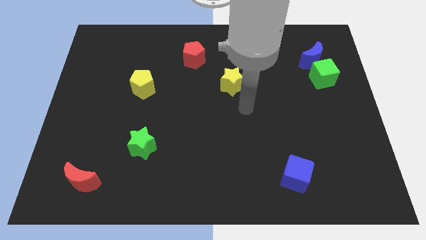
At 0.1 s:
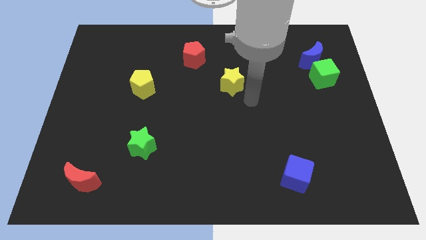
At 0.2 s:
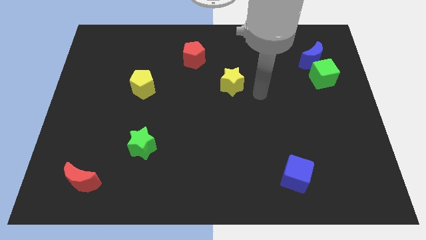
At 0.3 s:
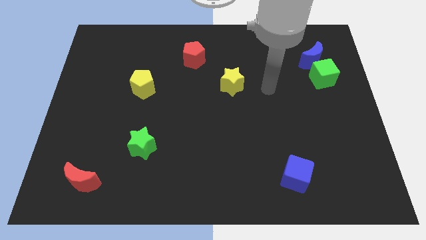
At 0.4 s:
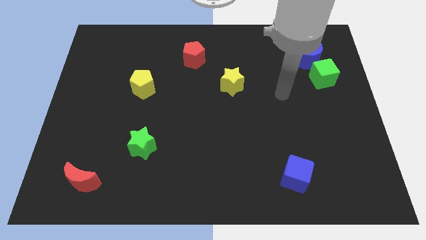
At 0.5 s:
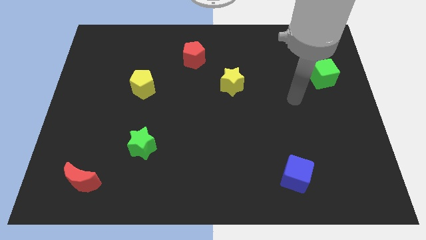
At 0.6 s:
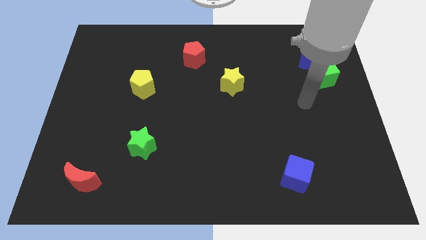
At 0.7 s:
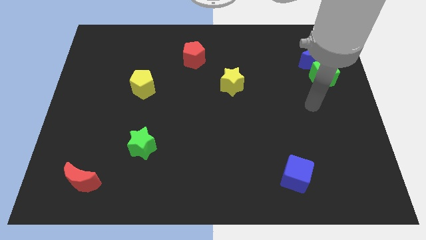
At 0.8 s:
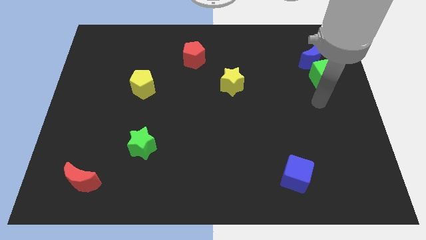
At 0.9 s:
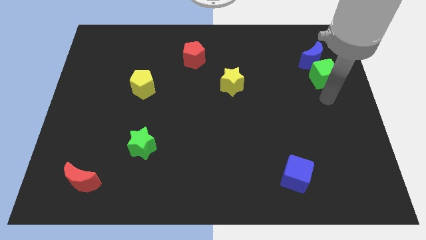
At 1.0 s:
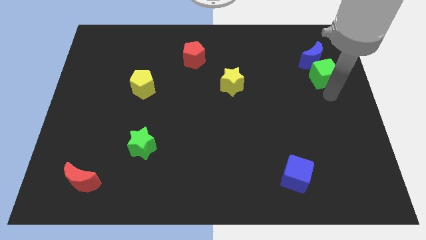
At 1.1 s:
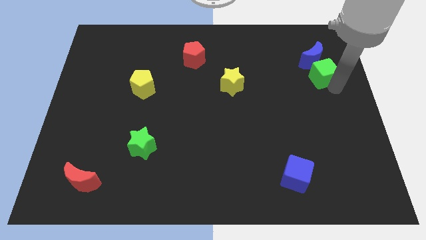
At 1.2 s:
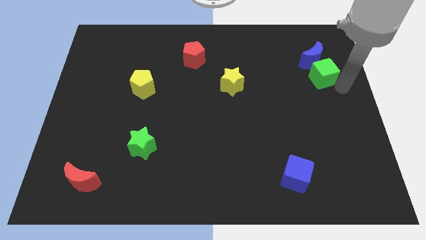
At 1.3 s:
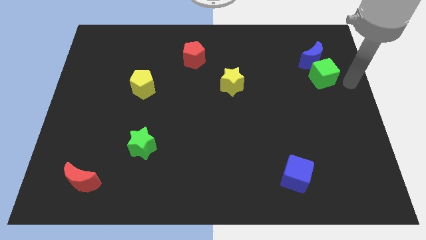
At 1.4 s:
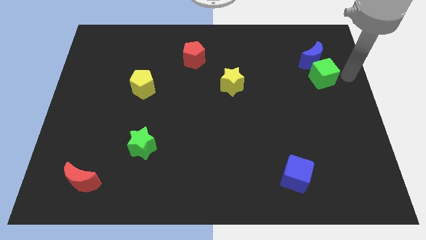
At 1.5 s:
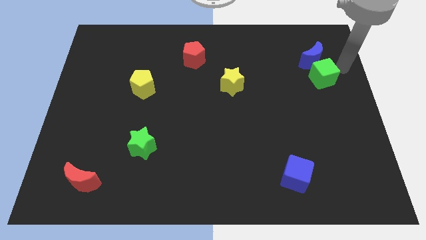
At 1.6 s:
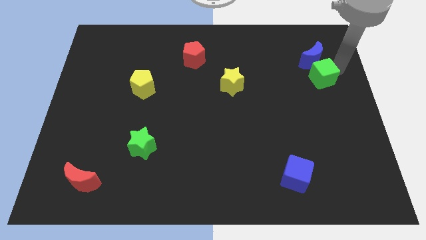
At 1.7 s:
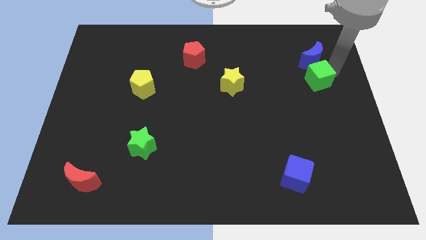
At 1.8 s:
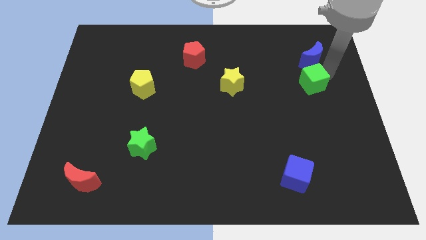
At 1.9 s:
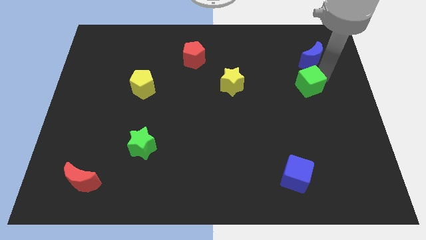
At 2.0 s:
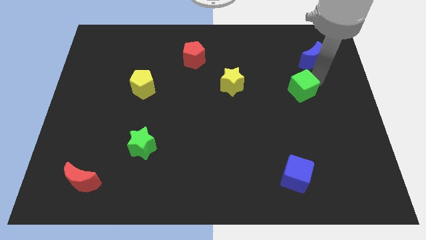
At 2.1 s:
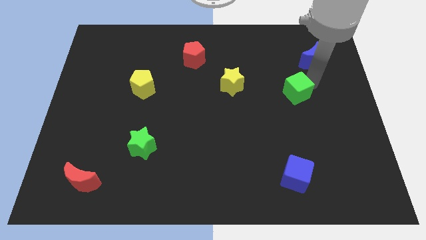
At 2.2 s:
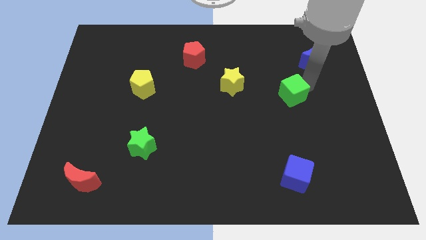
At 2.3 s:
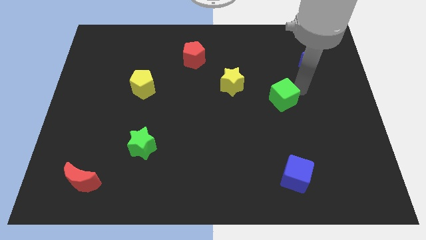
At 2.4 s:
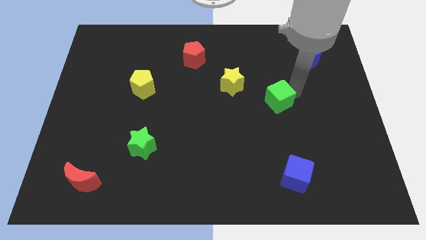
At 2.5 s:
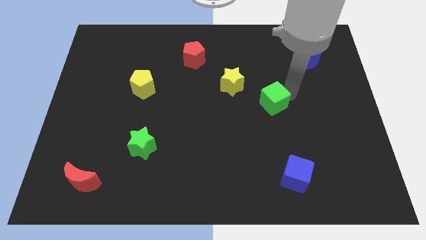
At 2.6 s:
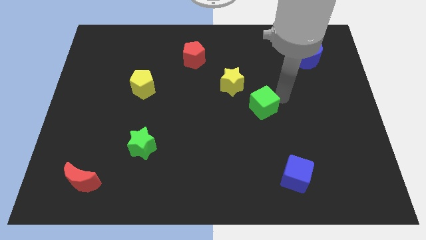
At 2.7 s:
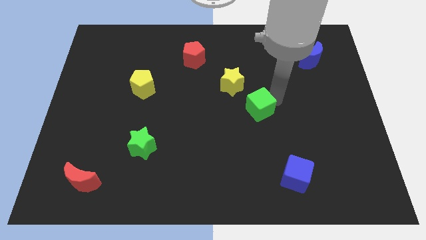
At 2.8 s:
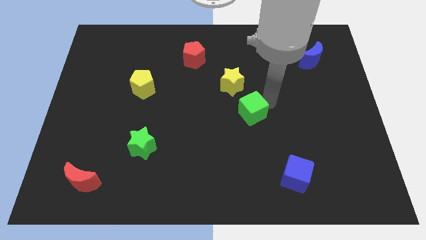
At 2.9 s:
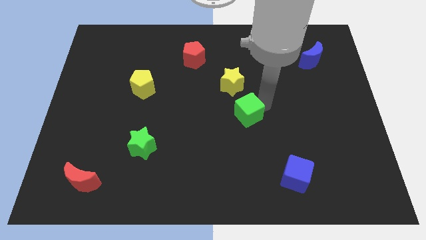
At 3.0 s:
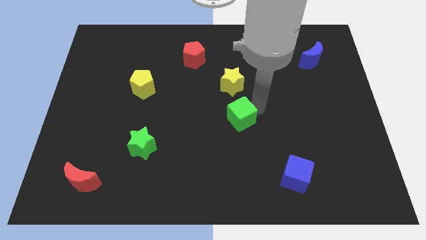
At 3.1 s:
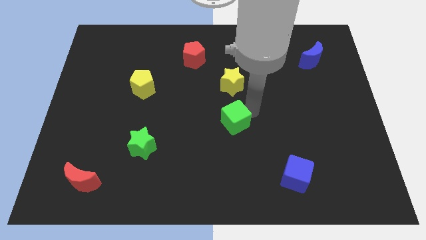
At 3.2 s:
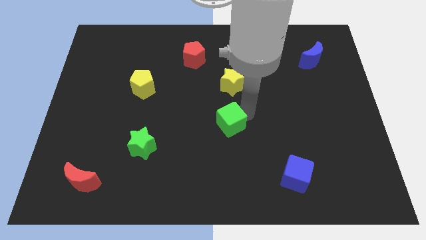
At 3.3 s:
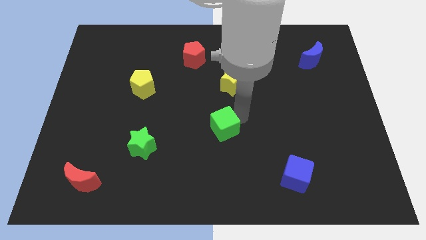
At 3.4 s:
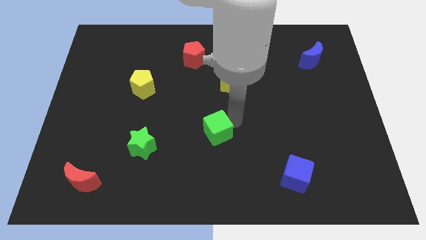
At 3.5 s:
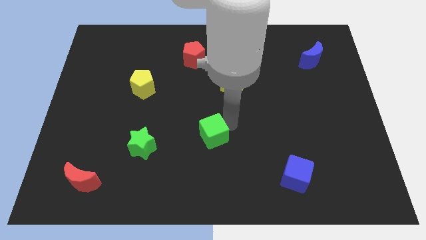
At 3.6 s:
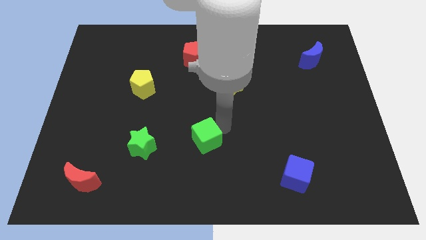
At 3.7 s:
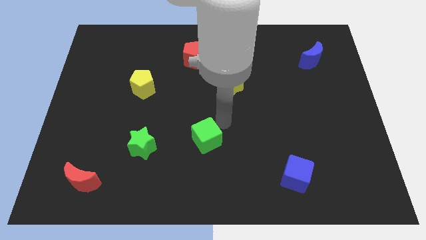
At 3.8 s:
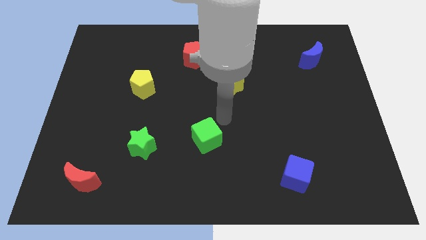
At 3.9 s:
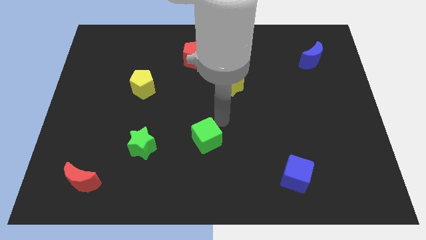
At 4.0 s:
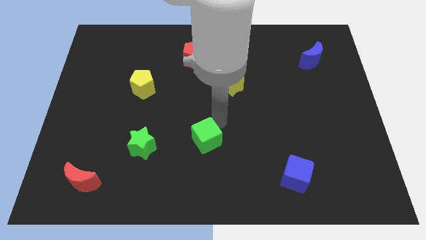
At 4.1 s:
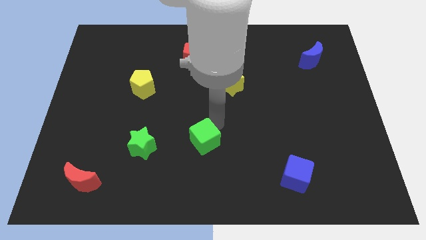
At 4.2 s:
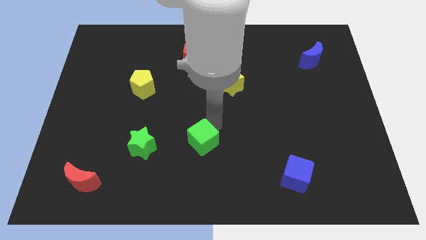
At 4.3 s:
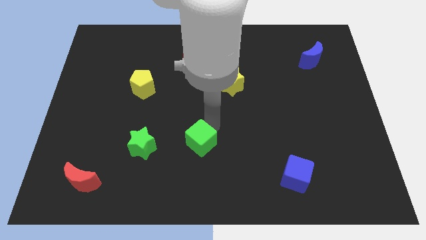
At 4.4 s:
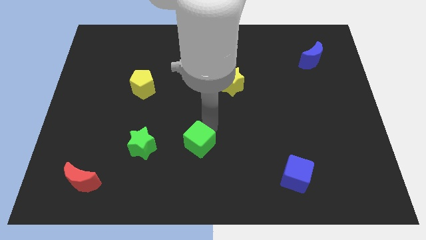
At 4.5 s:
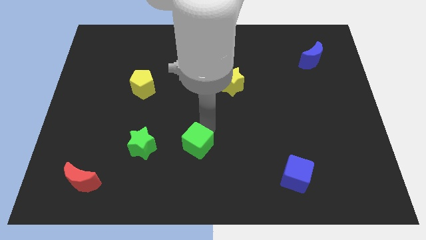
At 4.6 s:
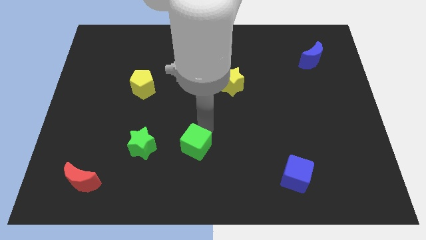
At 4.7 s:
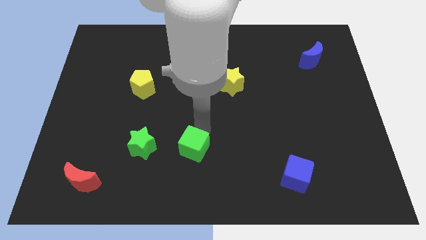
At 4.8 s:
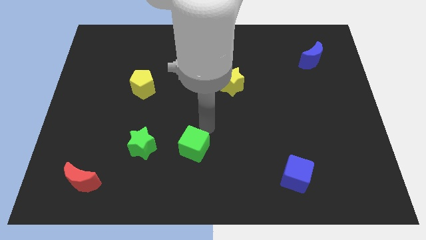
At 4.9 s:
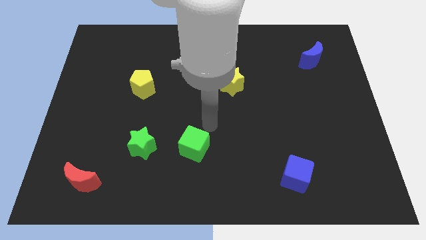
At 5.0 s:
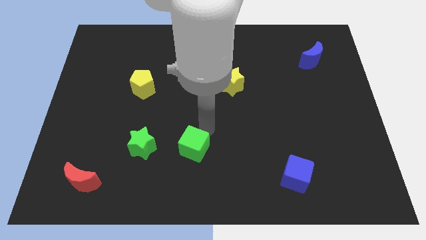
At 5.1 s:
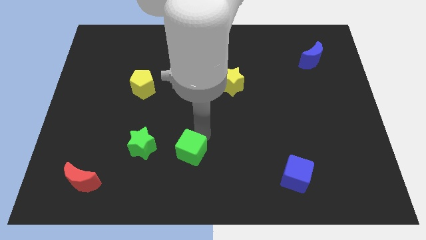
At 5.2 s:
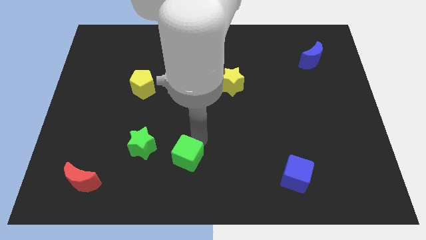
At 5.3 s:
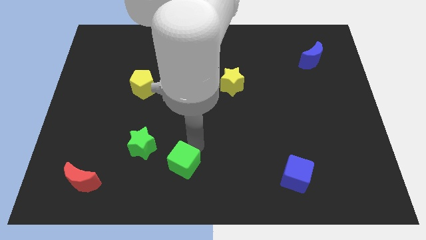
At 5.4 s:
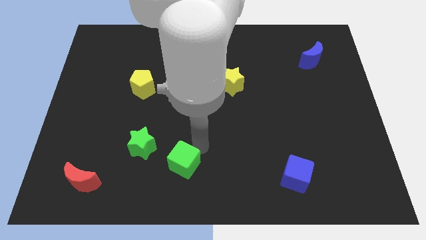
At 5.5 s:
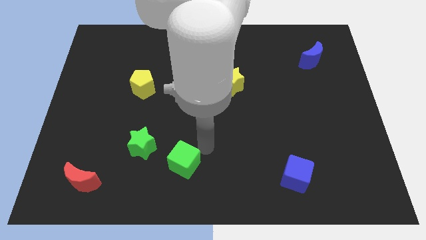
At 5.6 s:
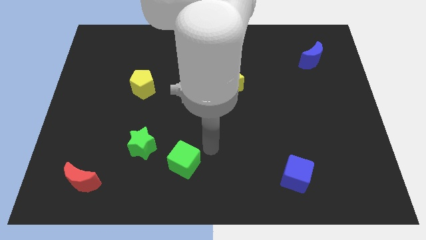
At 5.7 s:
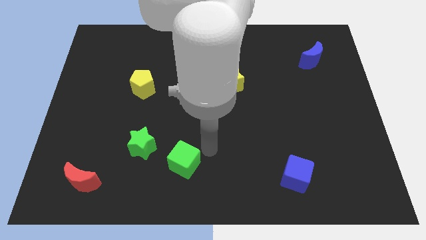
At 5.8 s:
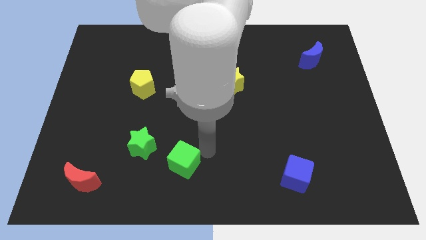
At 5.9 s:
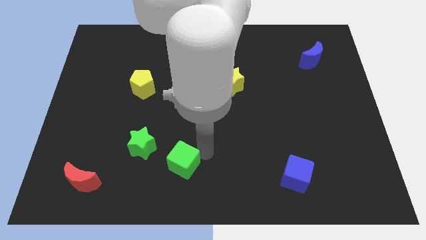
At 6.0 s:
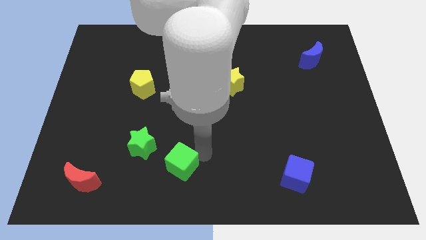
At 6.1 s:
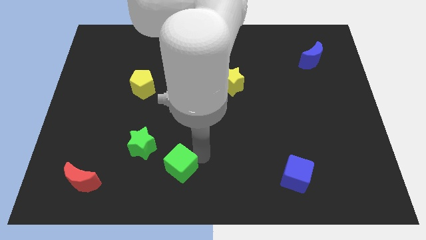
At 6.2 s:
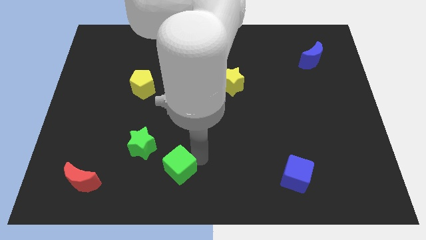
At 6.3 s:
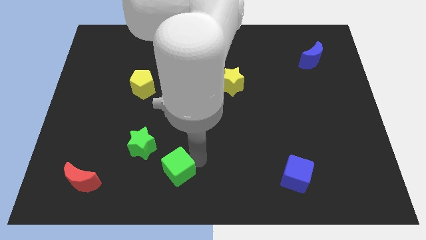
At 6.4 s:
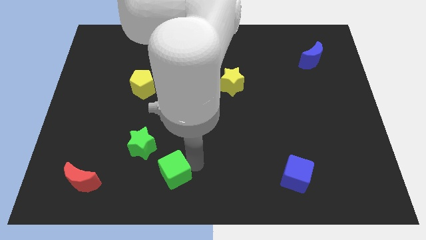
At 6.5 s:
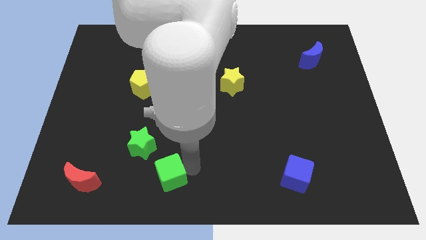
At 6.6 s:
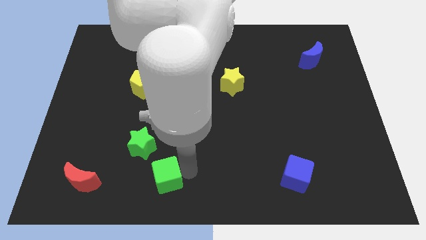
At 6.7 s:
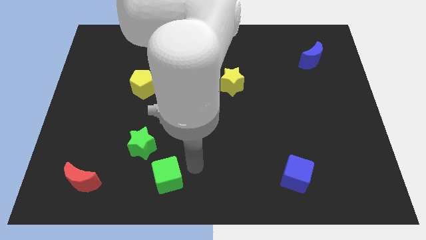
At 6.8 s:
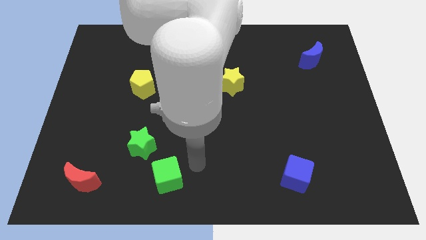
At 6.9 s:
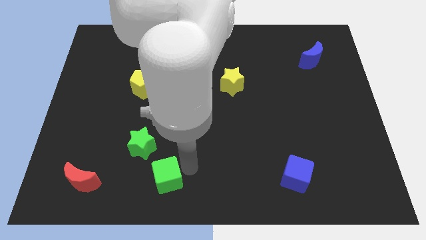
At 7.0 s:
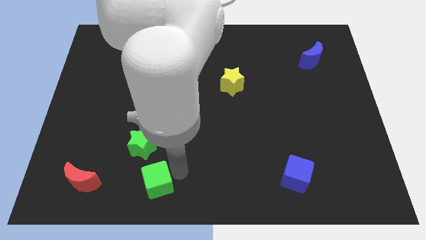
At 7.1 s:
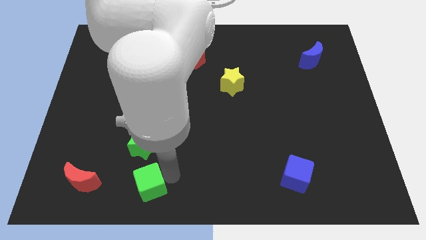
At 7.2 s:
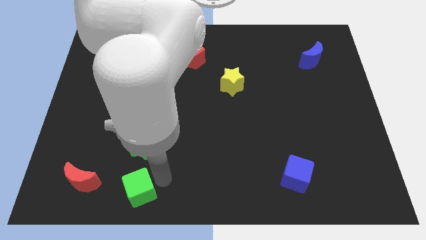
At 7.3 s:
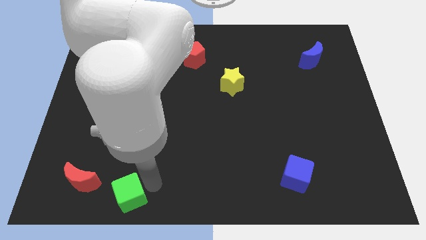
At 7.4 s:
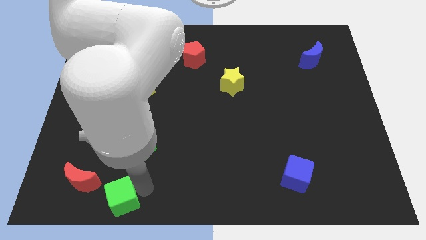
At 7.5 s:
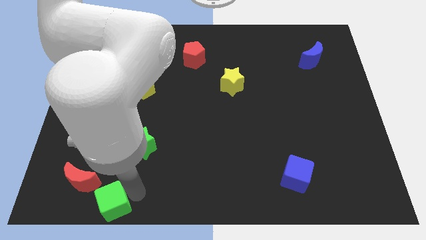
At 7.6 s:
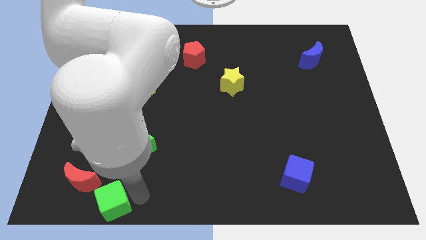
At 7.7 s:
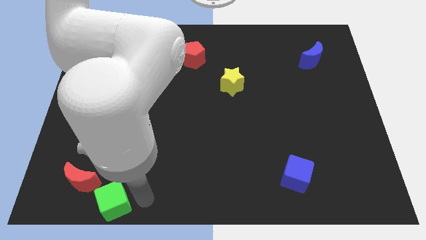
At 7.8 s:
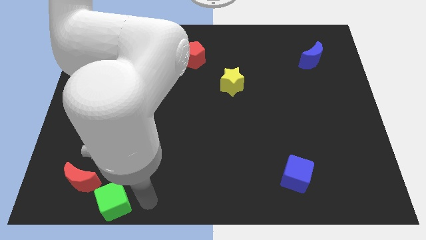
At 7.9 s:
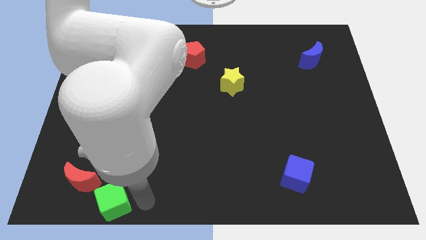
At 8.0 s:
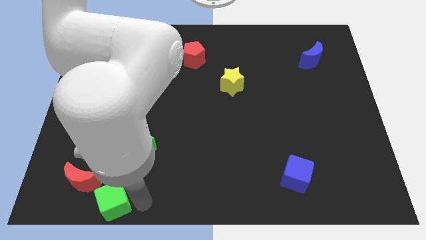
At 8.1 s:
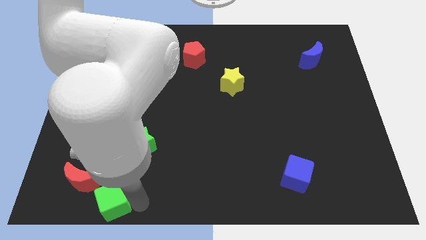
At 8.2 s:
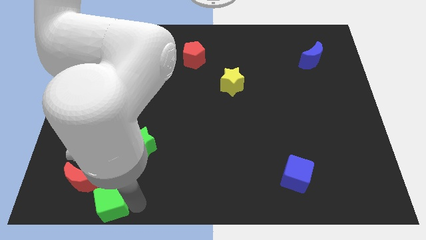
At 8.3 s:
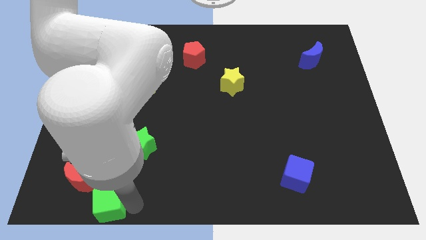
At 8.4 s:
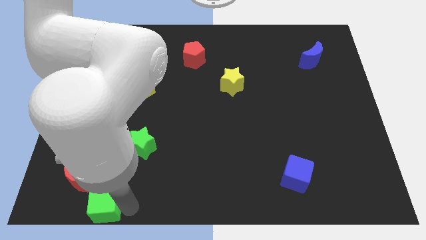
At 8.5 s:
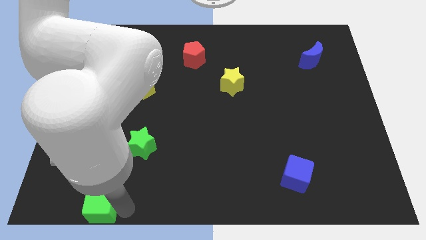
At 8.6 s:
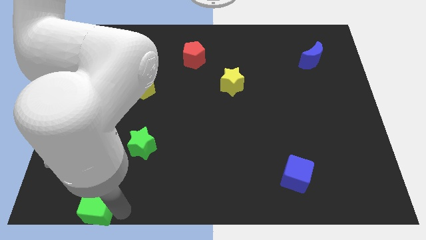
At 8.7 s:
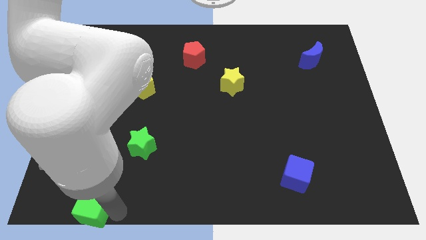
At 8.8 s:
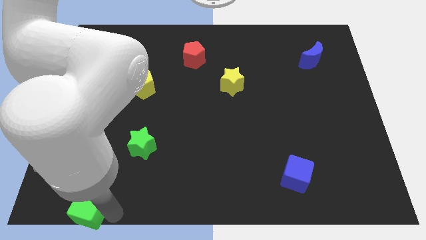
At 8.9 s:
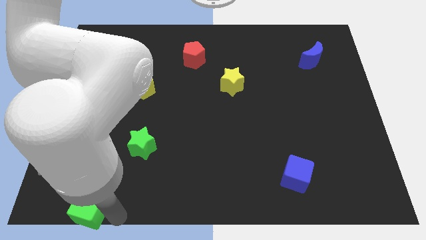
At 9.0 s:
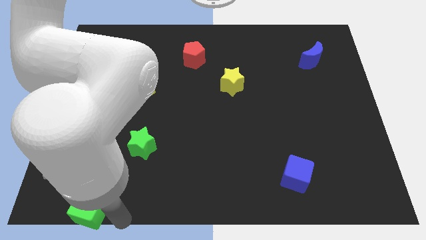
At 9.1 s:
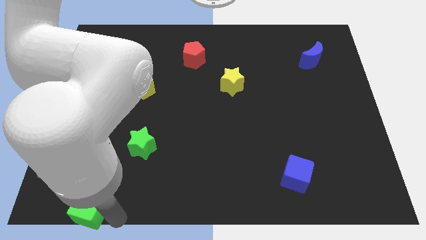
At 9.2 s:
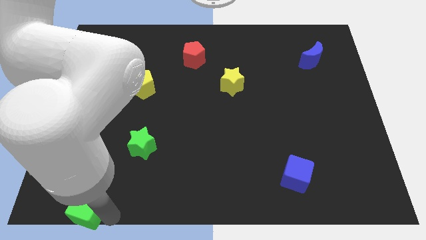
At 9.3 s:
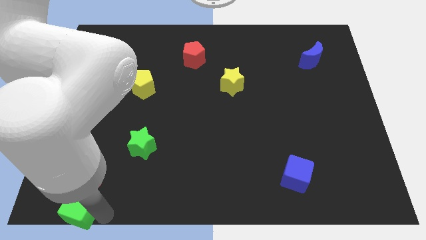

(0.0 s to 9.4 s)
slide the green cube to the lower left corner
